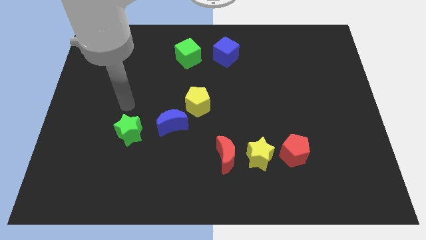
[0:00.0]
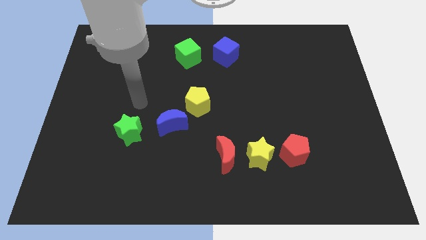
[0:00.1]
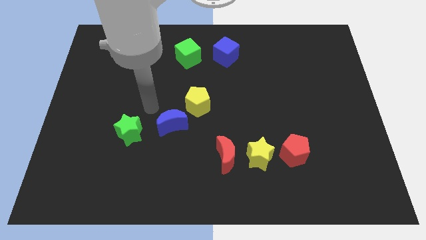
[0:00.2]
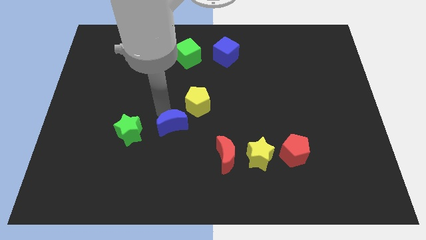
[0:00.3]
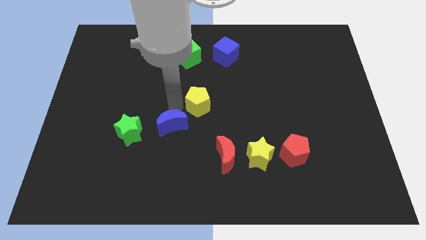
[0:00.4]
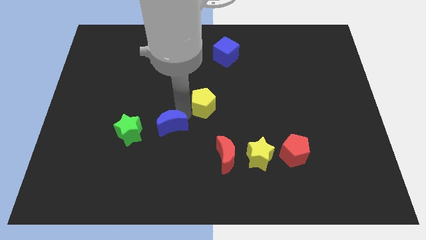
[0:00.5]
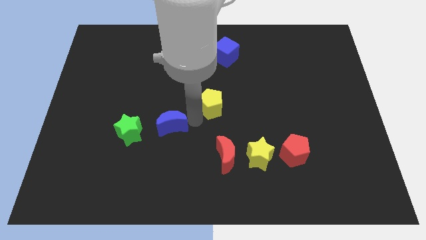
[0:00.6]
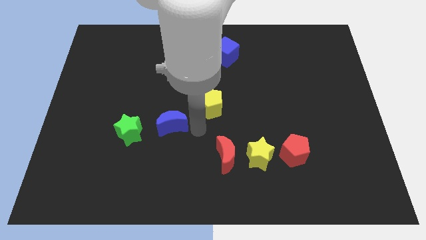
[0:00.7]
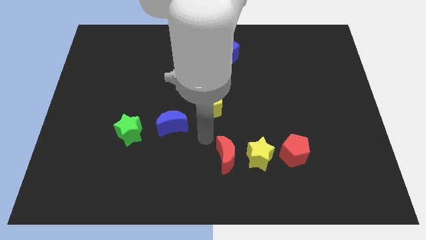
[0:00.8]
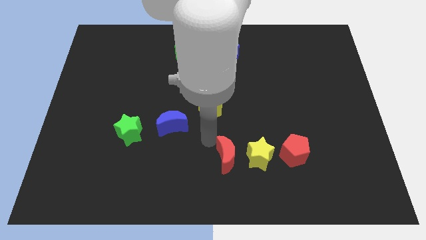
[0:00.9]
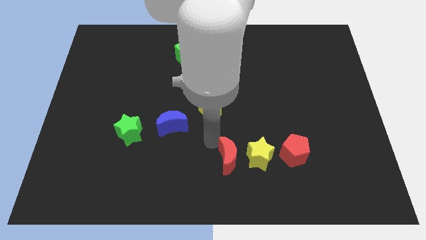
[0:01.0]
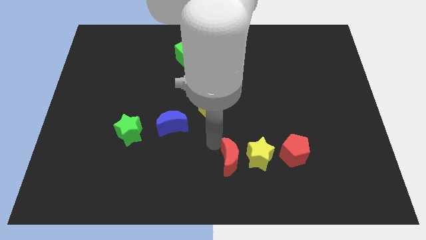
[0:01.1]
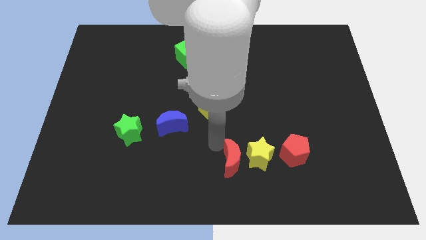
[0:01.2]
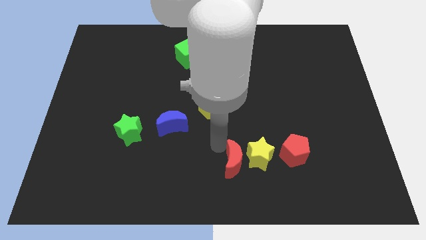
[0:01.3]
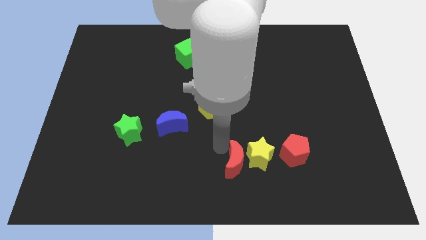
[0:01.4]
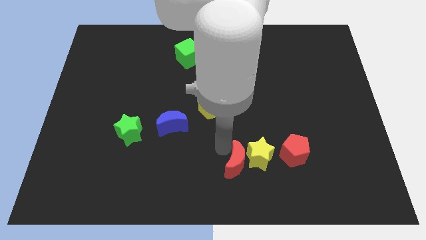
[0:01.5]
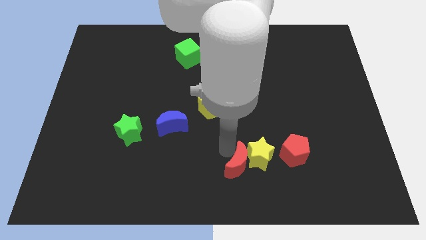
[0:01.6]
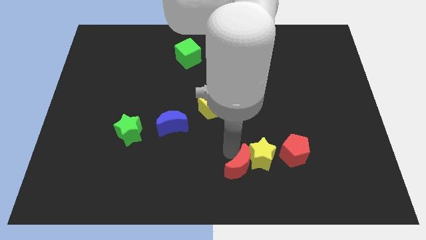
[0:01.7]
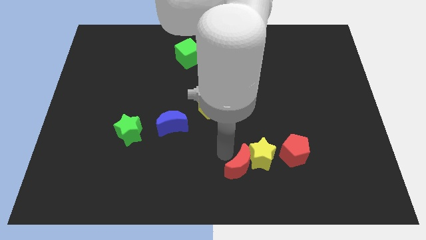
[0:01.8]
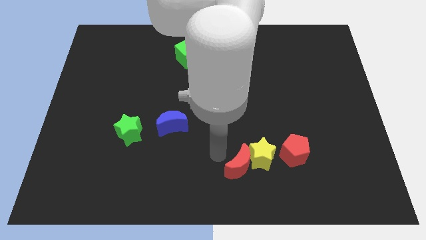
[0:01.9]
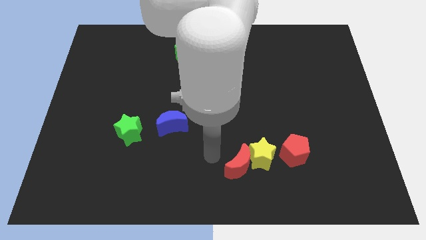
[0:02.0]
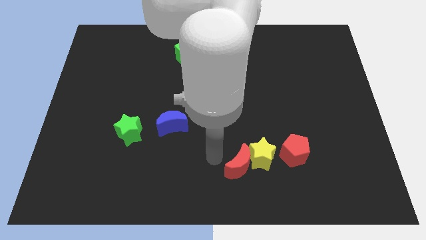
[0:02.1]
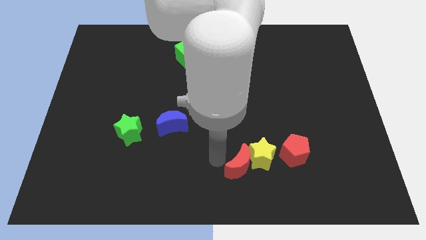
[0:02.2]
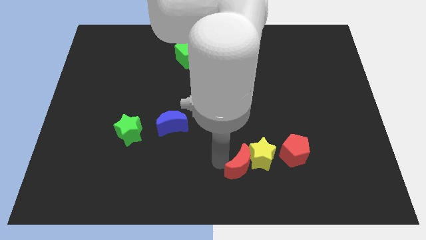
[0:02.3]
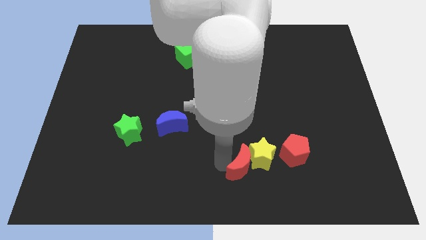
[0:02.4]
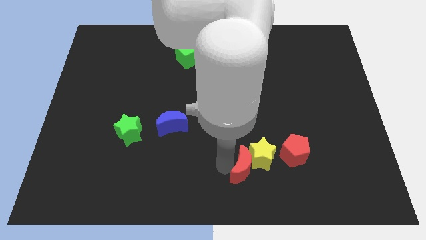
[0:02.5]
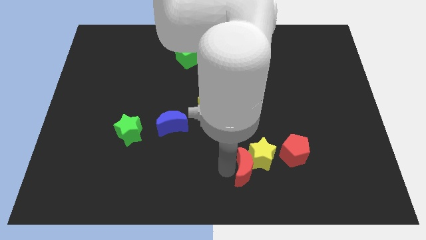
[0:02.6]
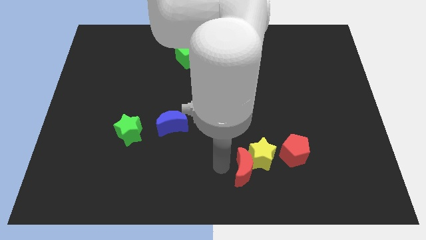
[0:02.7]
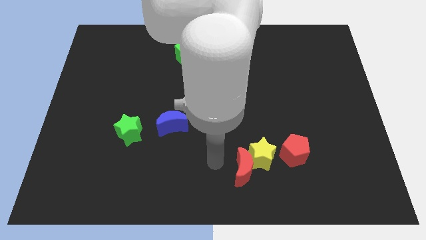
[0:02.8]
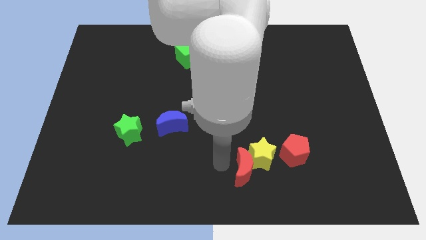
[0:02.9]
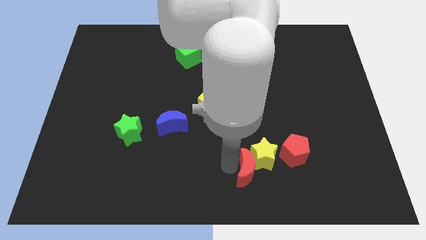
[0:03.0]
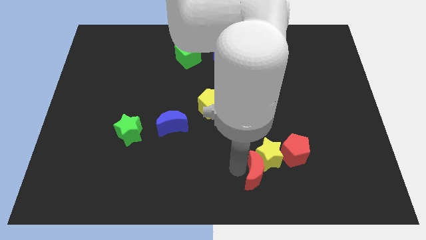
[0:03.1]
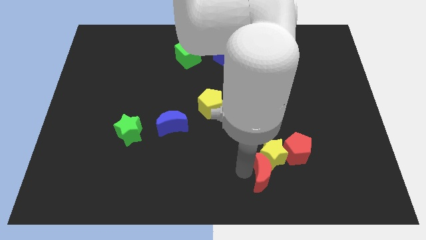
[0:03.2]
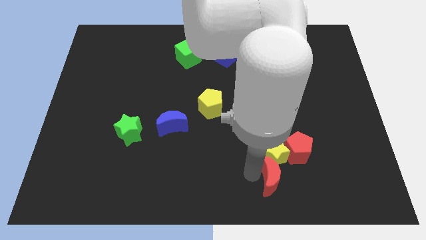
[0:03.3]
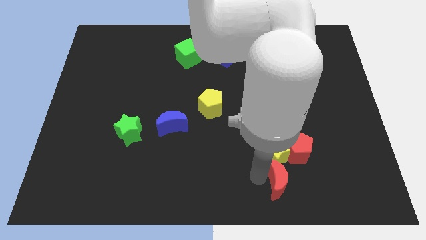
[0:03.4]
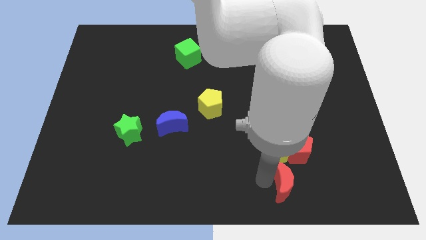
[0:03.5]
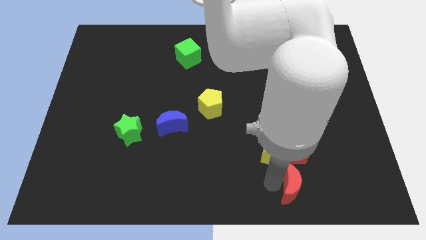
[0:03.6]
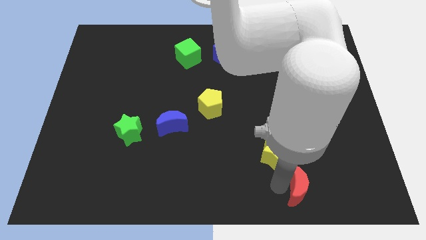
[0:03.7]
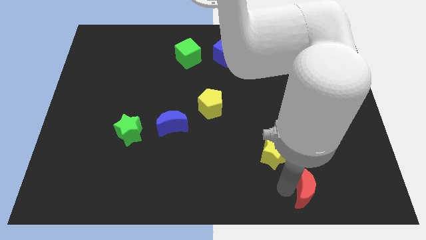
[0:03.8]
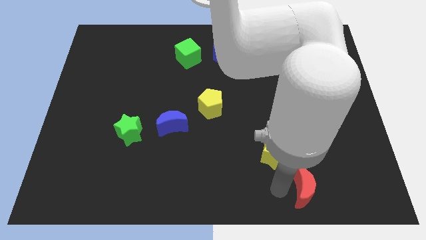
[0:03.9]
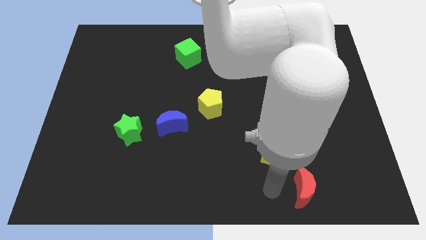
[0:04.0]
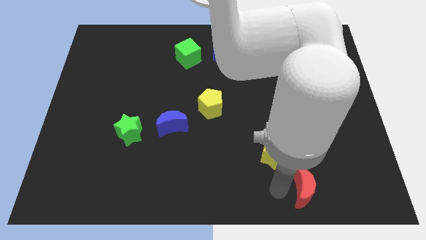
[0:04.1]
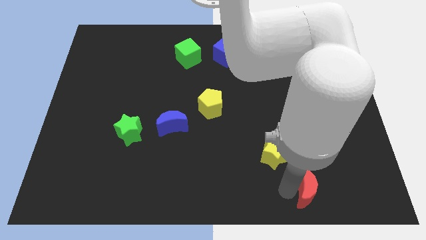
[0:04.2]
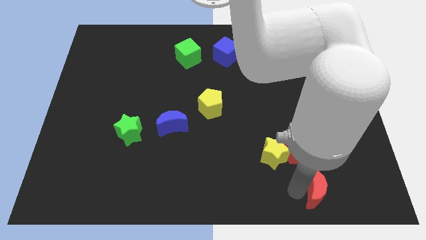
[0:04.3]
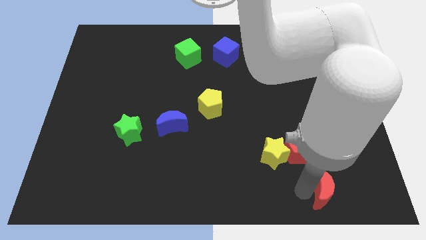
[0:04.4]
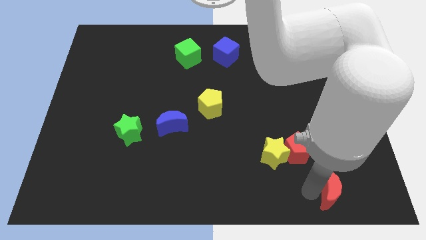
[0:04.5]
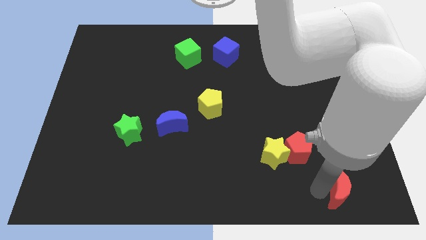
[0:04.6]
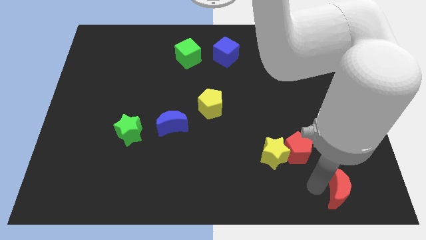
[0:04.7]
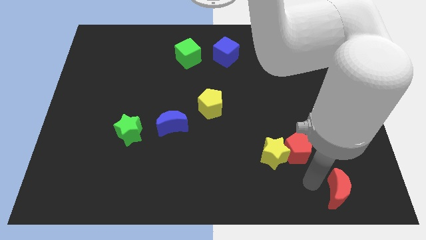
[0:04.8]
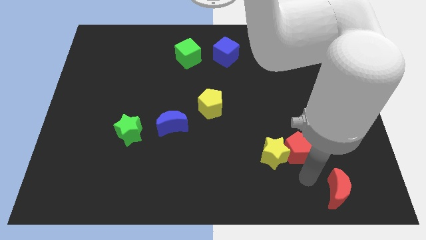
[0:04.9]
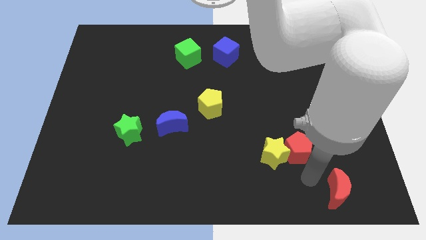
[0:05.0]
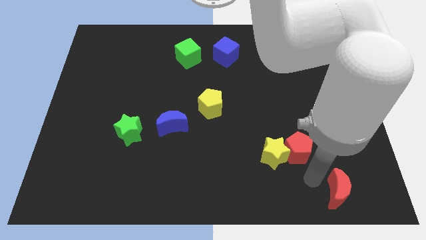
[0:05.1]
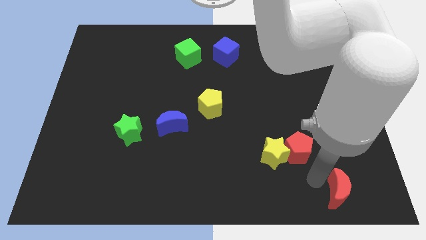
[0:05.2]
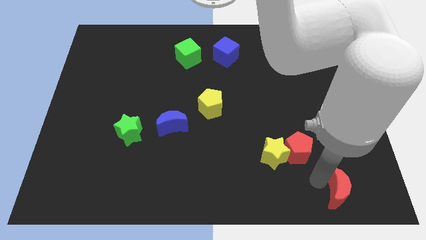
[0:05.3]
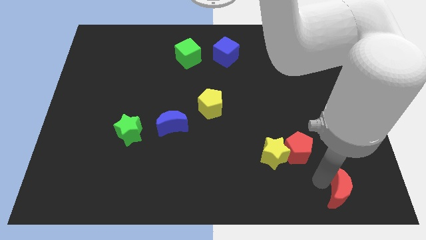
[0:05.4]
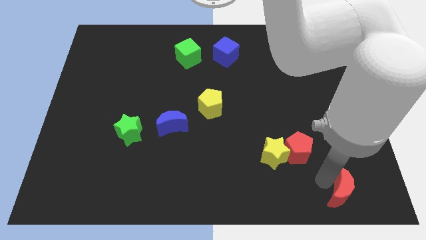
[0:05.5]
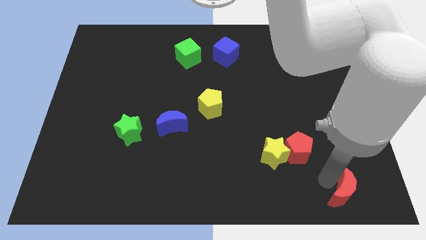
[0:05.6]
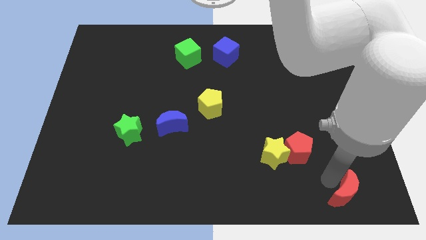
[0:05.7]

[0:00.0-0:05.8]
push the red moon to the lower right corner

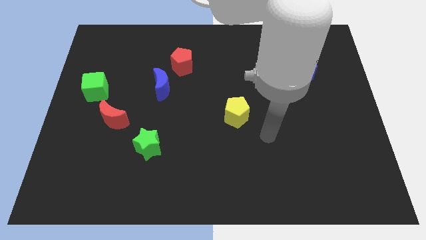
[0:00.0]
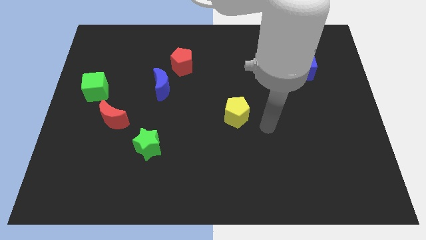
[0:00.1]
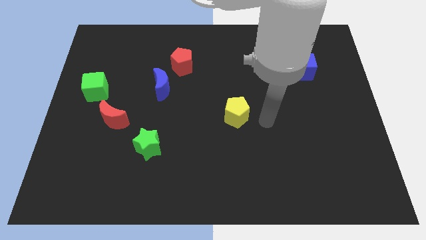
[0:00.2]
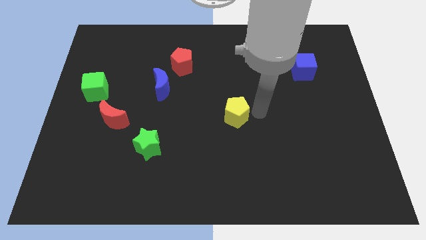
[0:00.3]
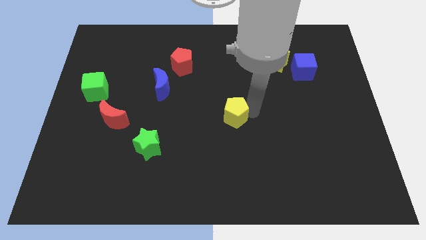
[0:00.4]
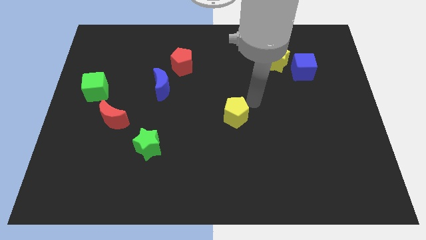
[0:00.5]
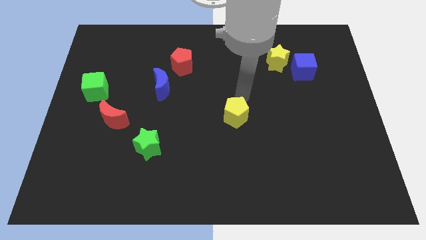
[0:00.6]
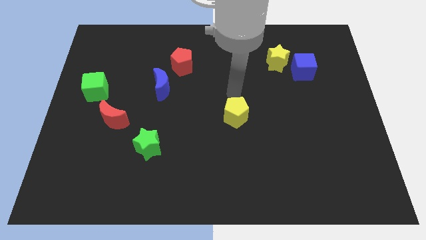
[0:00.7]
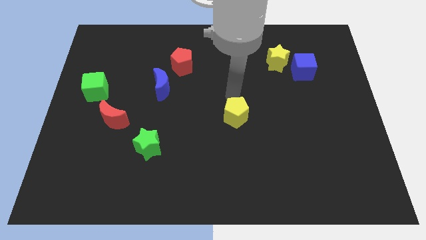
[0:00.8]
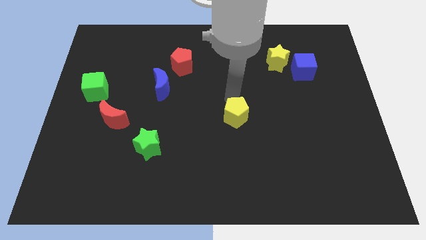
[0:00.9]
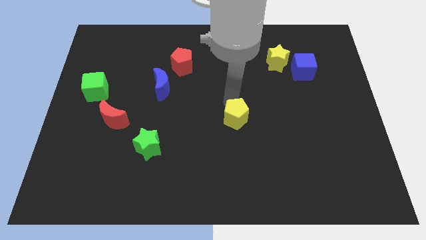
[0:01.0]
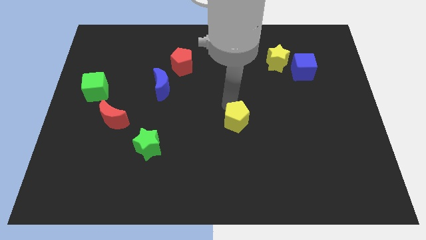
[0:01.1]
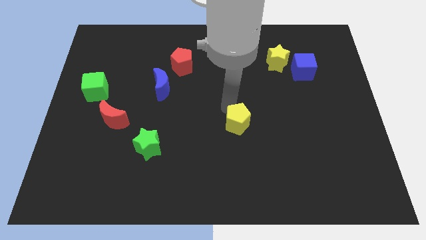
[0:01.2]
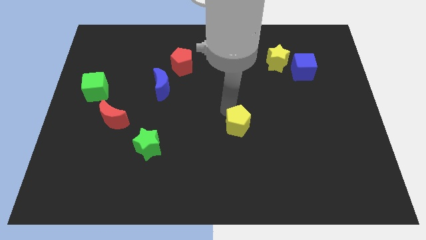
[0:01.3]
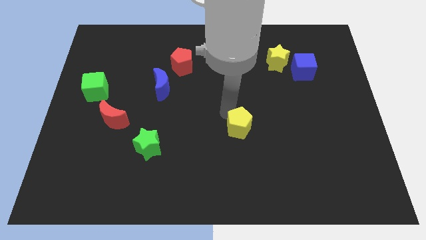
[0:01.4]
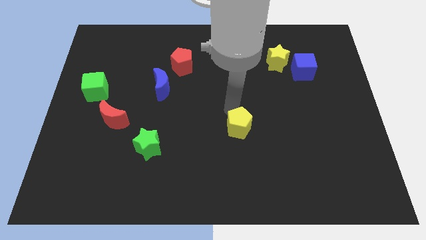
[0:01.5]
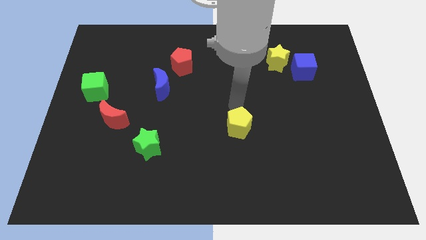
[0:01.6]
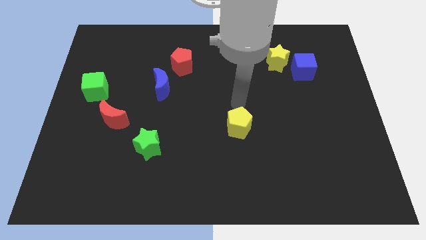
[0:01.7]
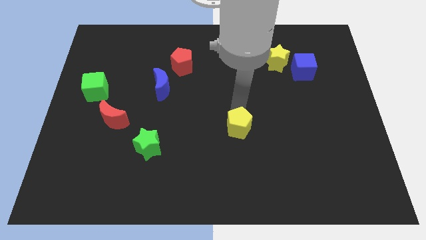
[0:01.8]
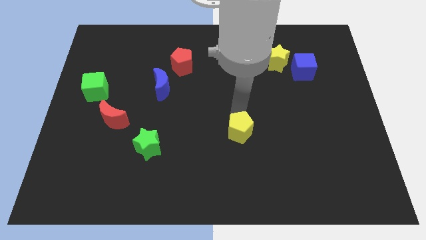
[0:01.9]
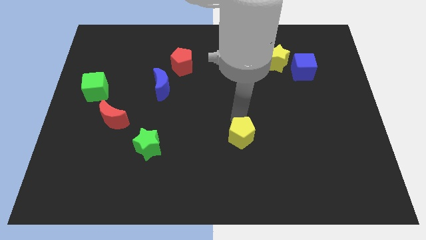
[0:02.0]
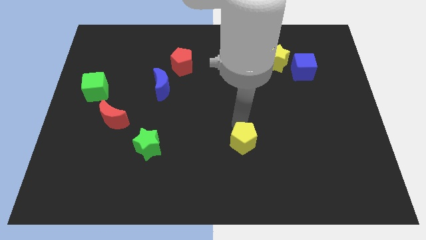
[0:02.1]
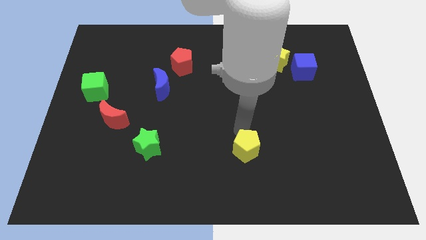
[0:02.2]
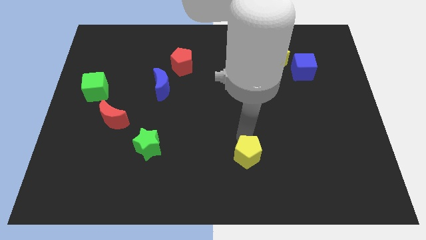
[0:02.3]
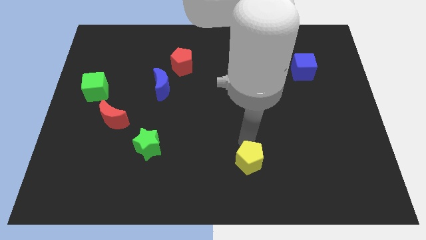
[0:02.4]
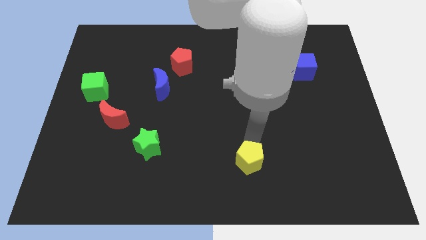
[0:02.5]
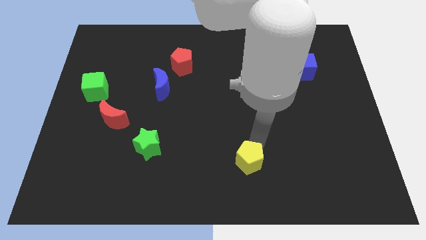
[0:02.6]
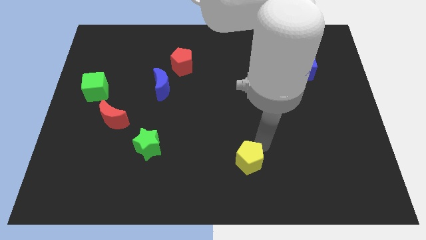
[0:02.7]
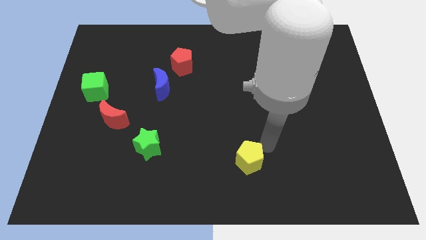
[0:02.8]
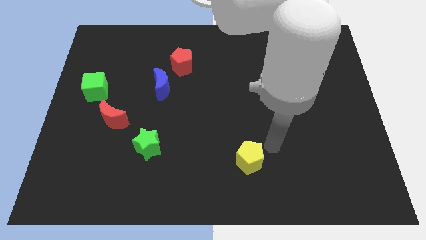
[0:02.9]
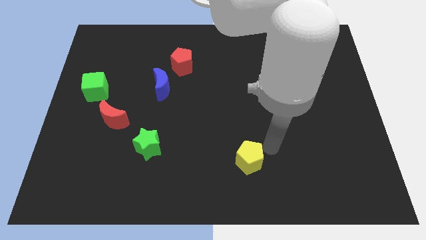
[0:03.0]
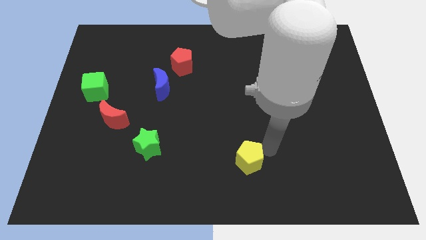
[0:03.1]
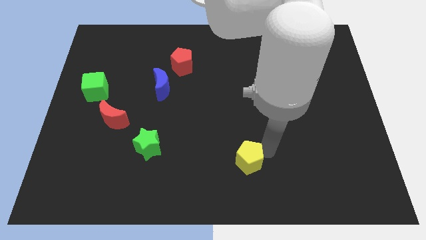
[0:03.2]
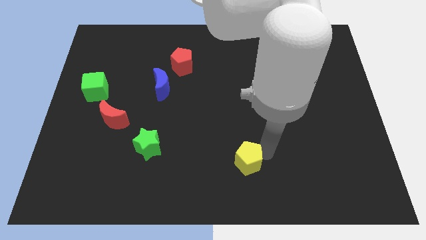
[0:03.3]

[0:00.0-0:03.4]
slide the yellow pentagon to the bottom side
